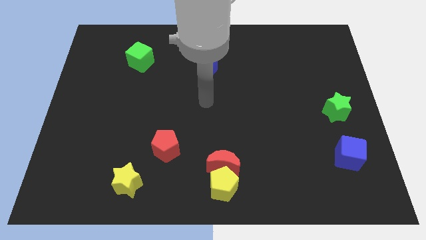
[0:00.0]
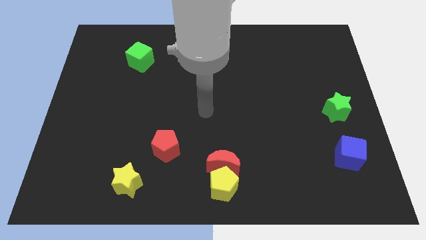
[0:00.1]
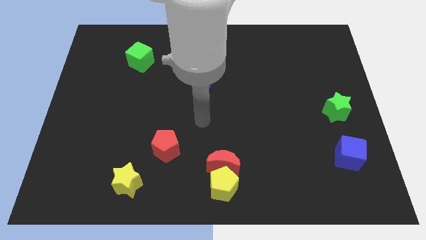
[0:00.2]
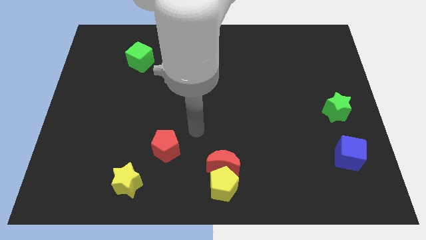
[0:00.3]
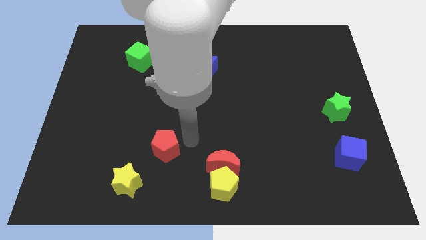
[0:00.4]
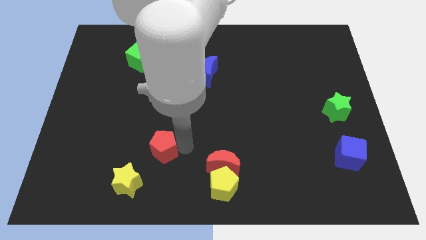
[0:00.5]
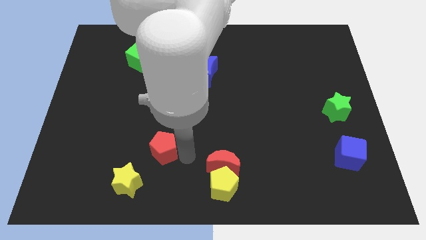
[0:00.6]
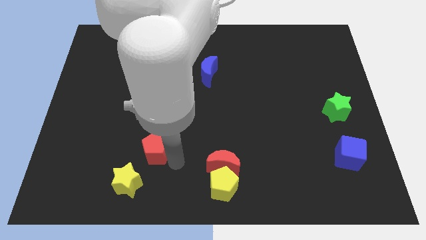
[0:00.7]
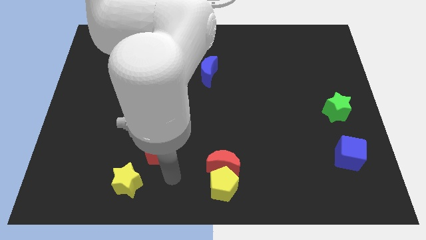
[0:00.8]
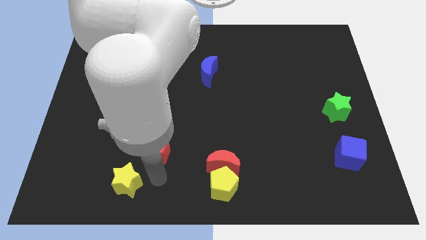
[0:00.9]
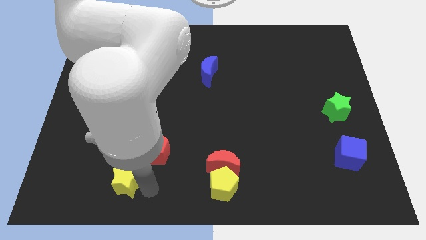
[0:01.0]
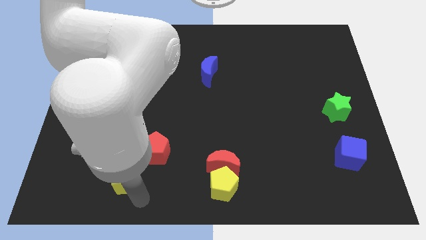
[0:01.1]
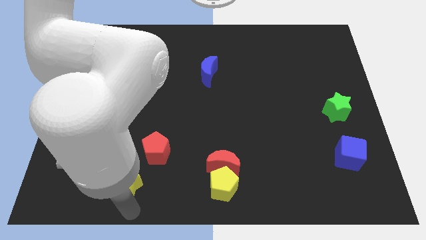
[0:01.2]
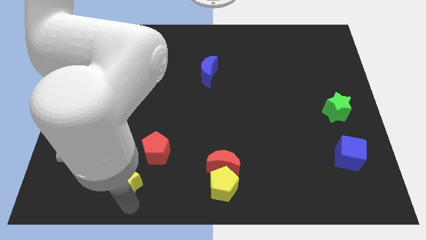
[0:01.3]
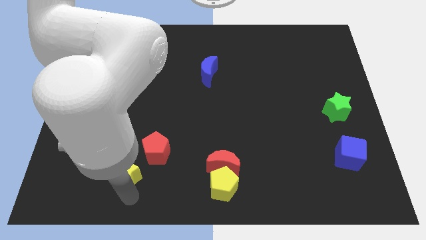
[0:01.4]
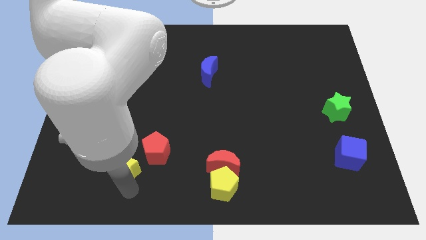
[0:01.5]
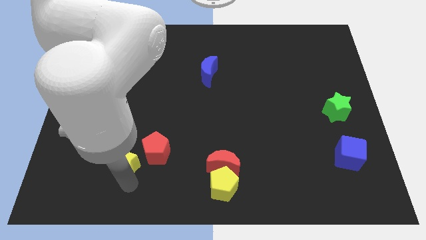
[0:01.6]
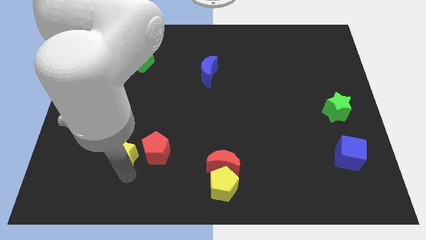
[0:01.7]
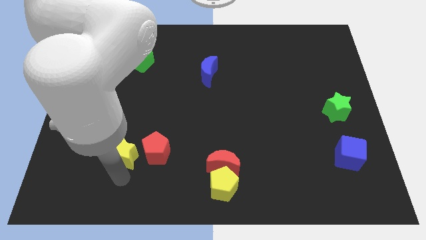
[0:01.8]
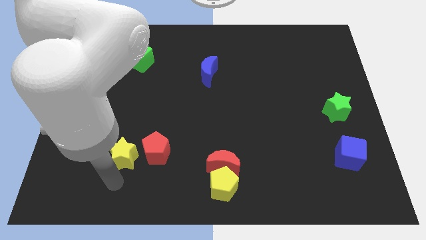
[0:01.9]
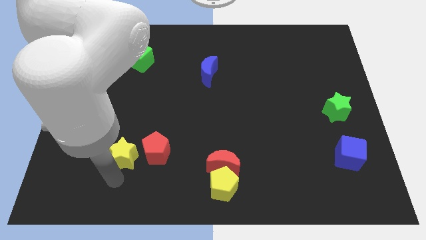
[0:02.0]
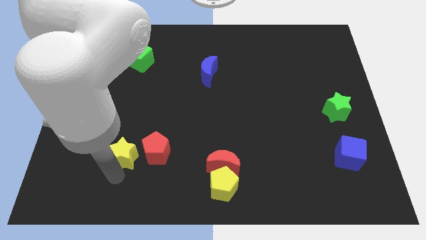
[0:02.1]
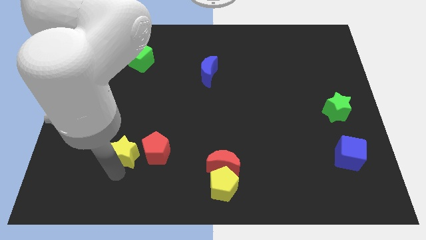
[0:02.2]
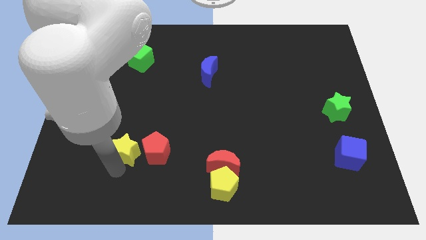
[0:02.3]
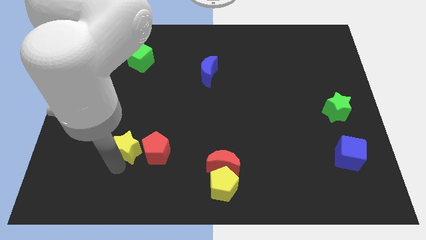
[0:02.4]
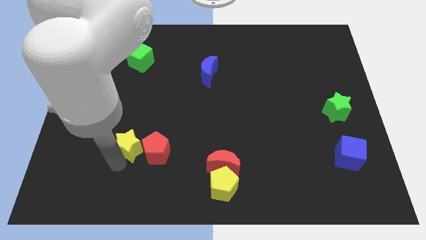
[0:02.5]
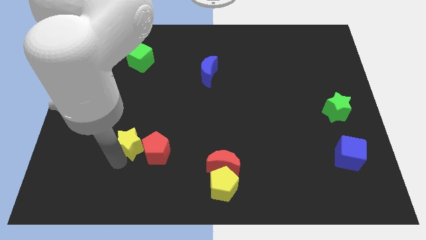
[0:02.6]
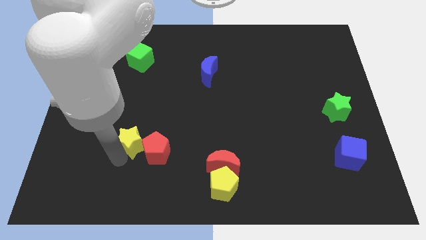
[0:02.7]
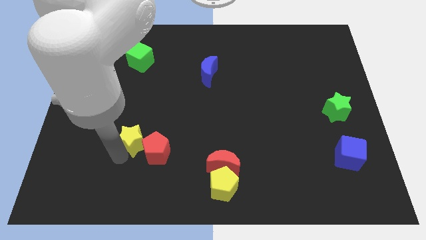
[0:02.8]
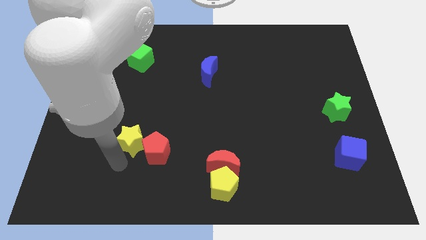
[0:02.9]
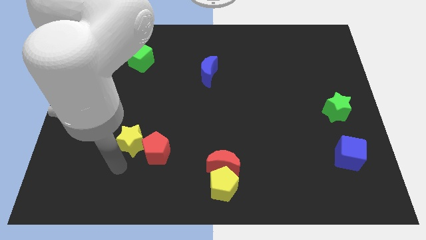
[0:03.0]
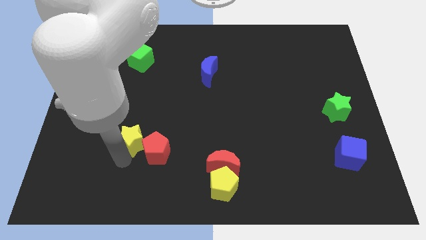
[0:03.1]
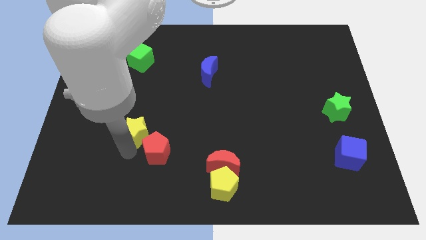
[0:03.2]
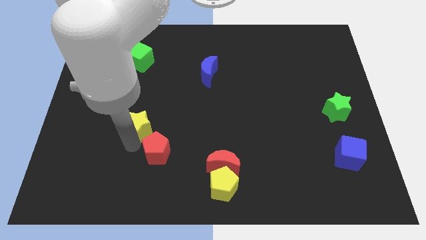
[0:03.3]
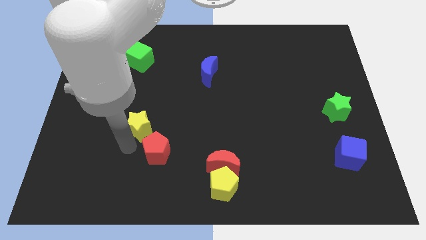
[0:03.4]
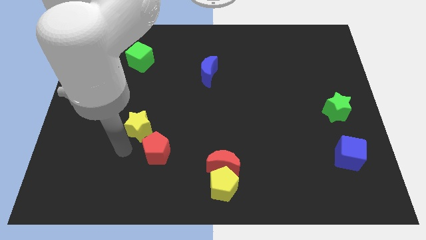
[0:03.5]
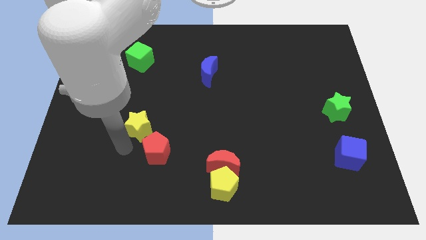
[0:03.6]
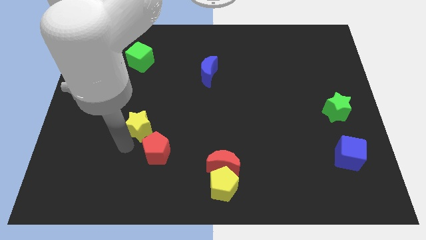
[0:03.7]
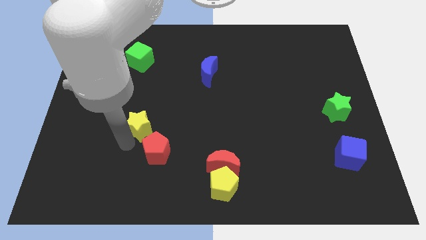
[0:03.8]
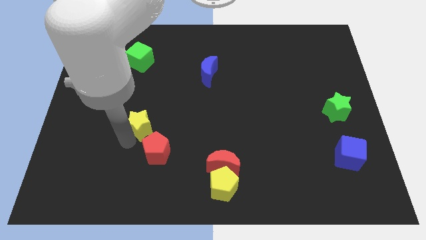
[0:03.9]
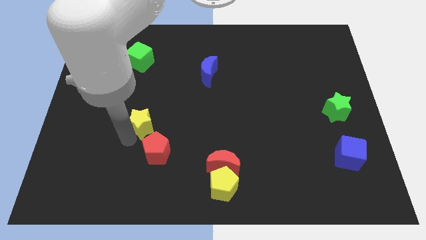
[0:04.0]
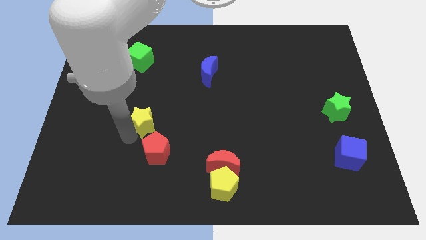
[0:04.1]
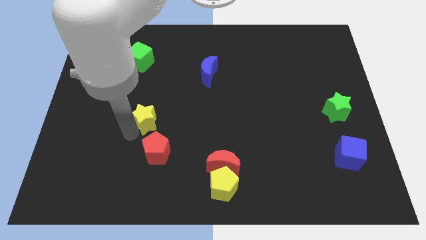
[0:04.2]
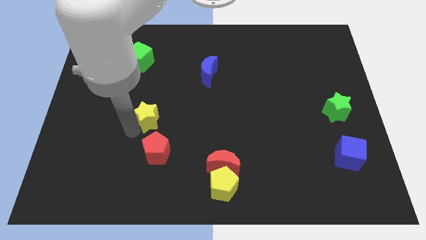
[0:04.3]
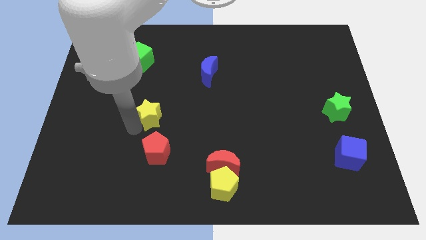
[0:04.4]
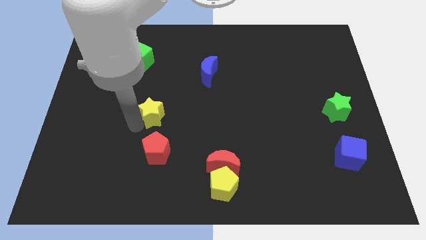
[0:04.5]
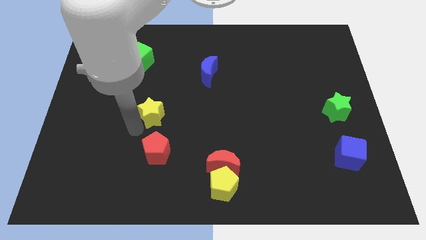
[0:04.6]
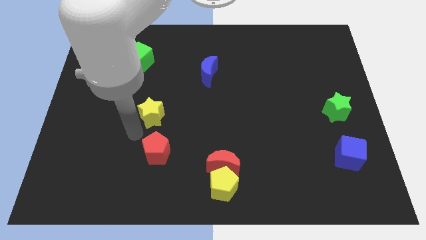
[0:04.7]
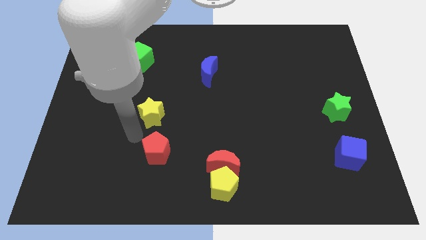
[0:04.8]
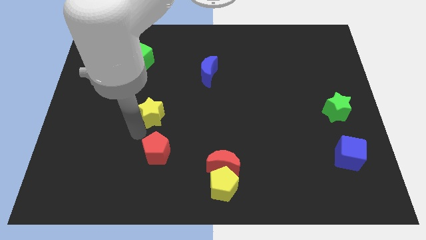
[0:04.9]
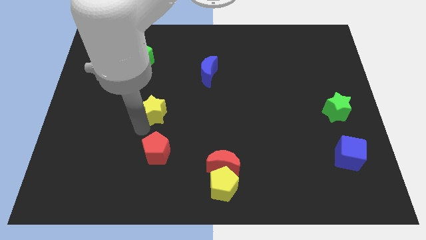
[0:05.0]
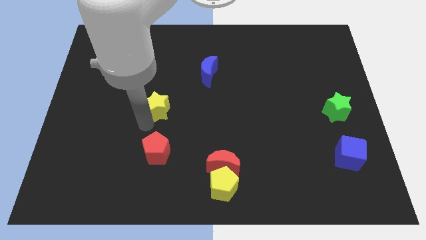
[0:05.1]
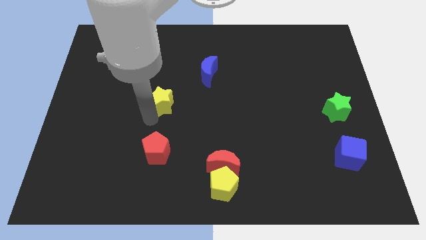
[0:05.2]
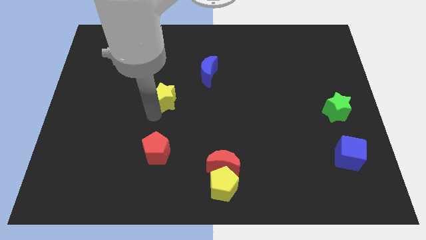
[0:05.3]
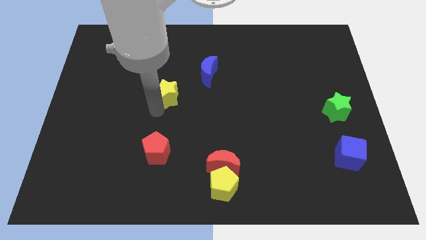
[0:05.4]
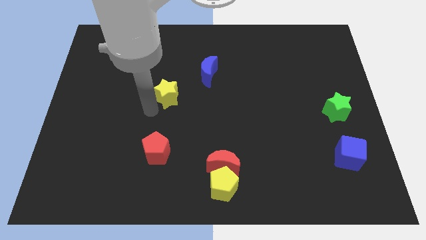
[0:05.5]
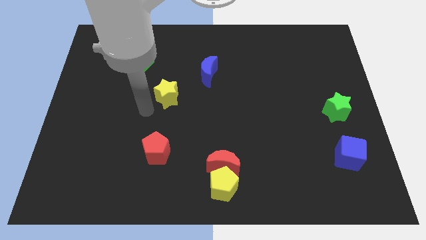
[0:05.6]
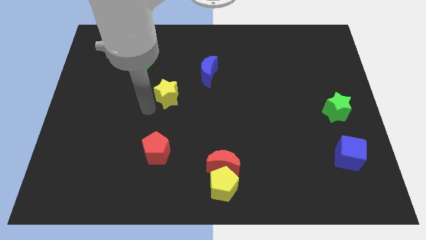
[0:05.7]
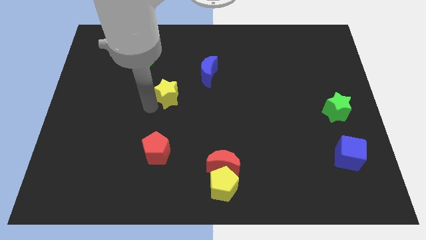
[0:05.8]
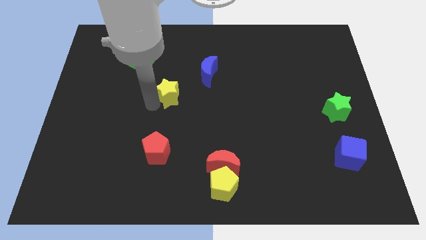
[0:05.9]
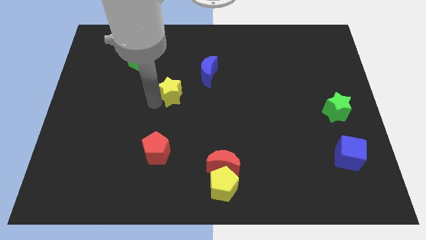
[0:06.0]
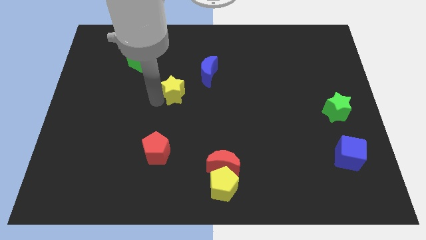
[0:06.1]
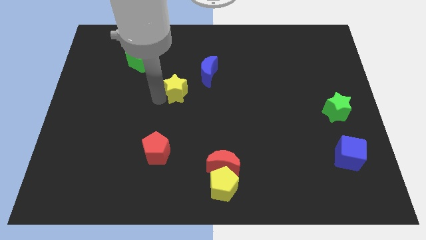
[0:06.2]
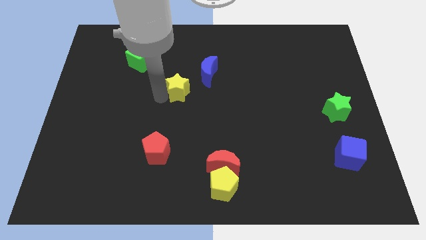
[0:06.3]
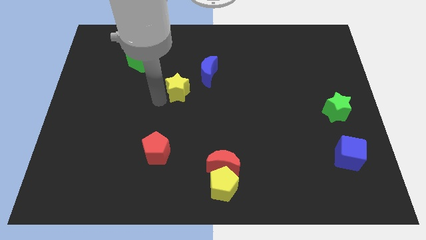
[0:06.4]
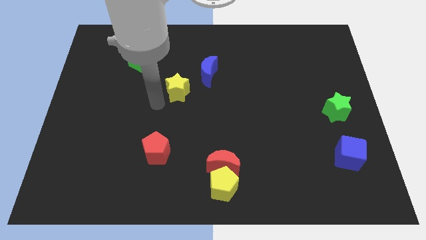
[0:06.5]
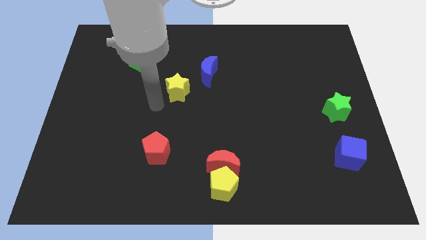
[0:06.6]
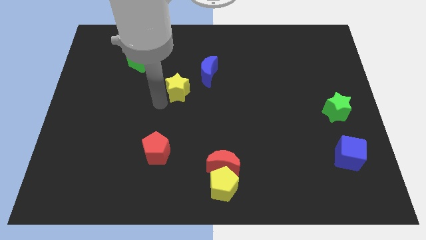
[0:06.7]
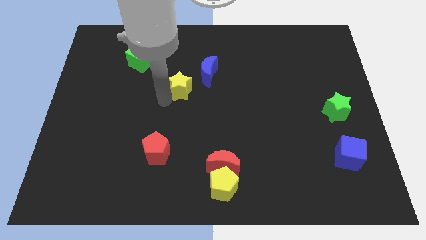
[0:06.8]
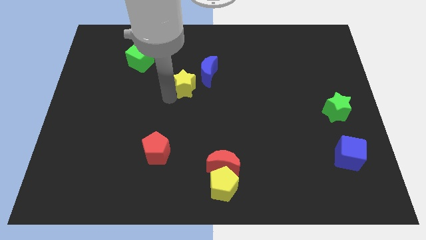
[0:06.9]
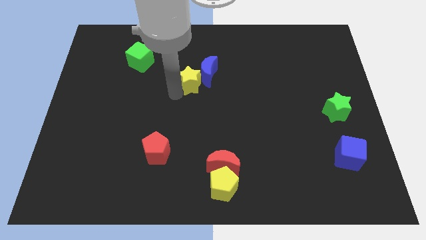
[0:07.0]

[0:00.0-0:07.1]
move the yellow star next to the blue moon
